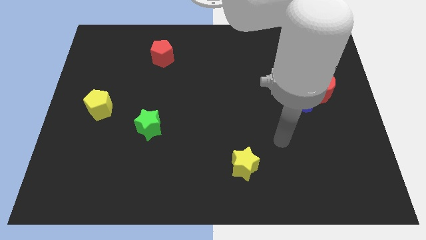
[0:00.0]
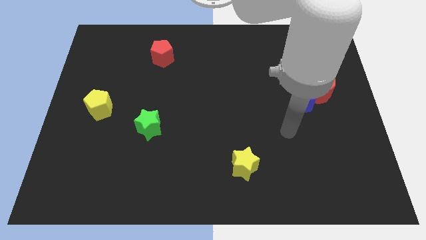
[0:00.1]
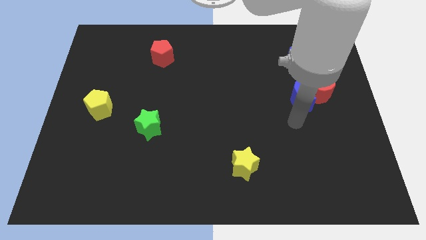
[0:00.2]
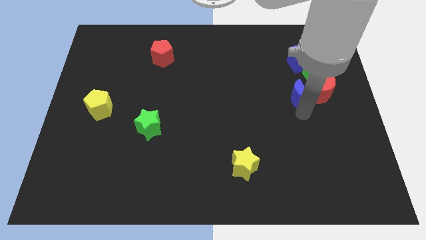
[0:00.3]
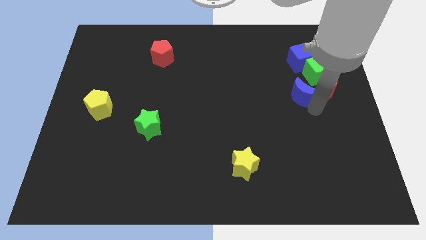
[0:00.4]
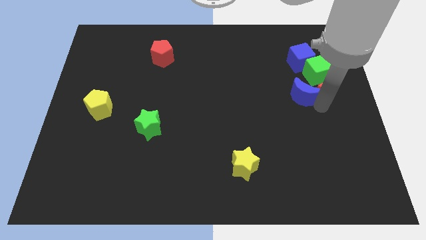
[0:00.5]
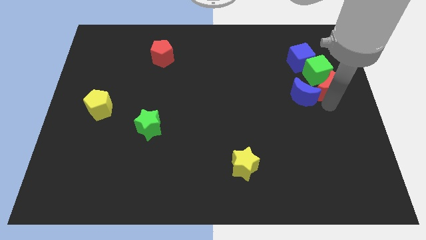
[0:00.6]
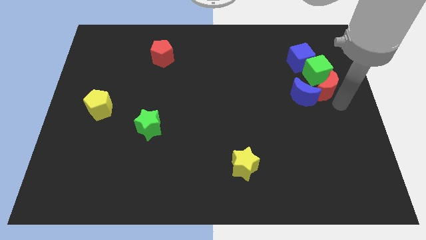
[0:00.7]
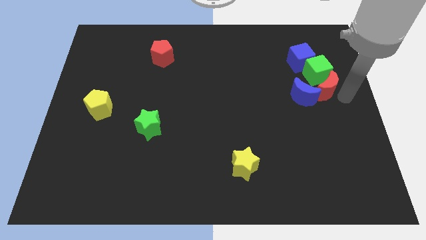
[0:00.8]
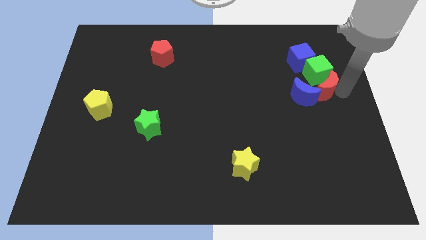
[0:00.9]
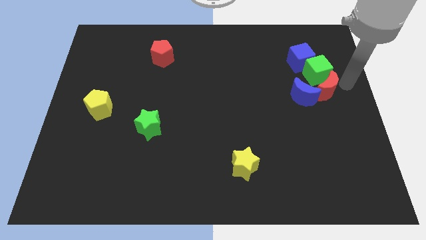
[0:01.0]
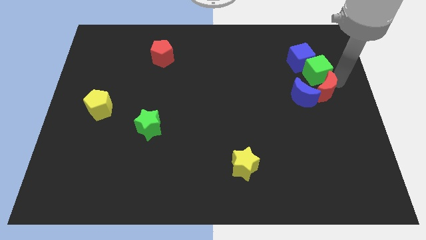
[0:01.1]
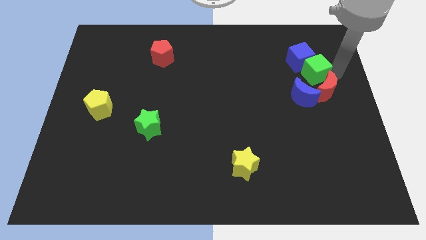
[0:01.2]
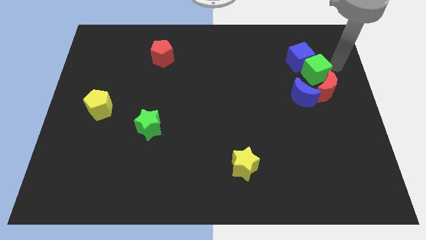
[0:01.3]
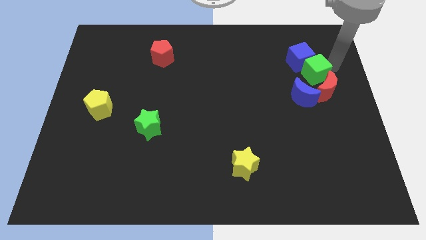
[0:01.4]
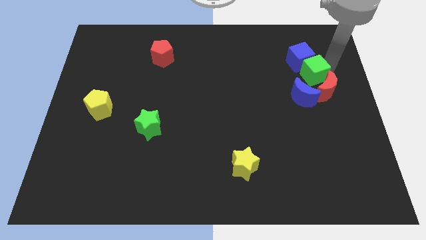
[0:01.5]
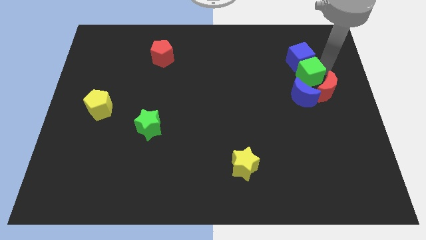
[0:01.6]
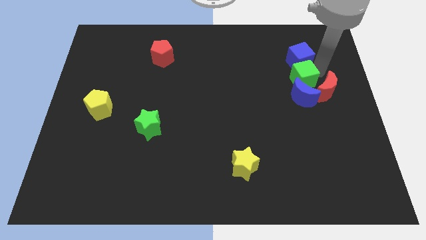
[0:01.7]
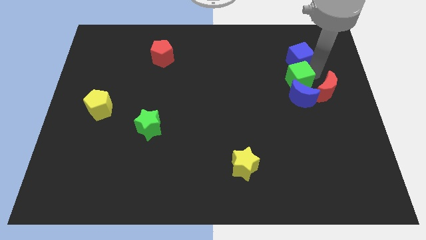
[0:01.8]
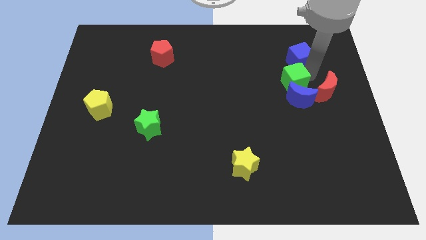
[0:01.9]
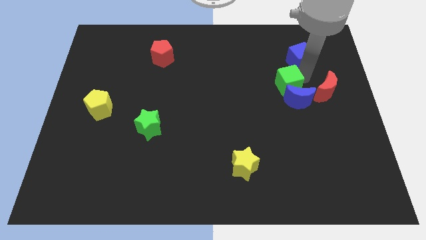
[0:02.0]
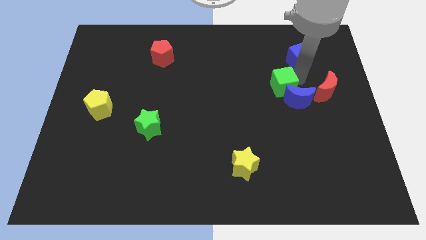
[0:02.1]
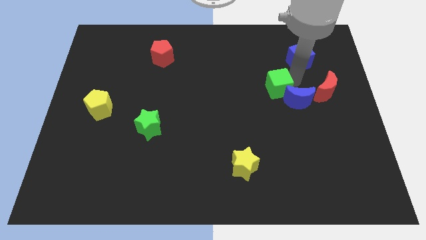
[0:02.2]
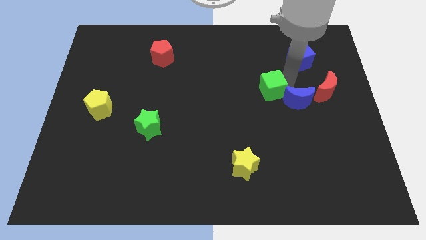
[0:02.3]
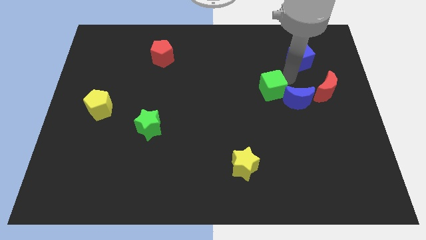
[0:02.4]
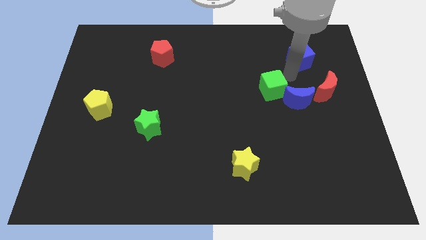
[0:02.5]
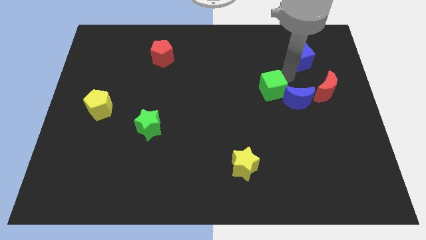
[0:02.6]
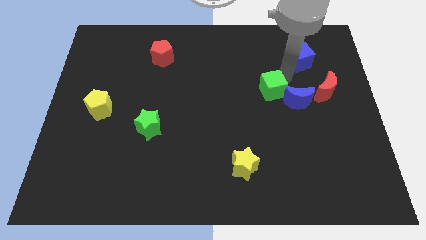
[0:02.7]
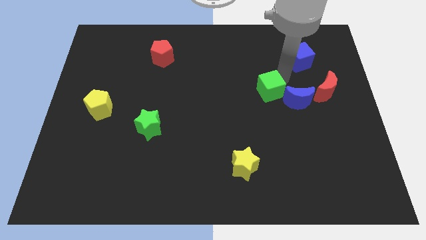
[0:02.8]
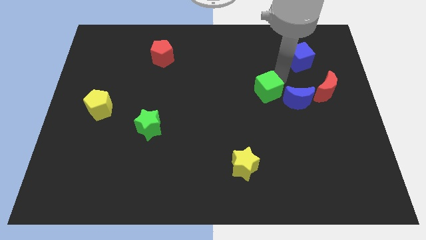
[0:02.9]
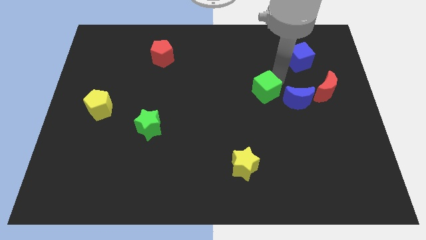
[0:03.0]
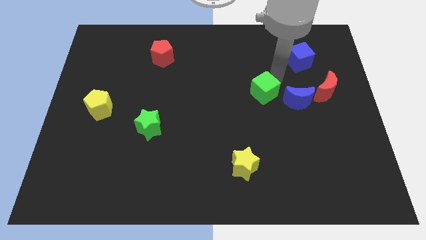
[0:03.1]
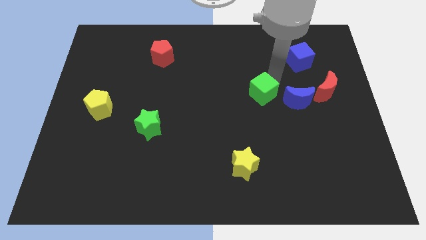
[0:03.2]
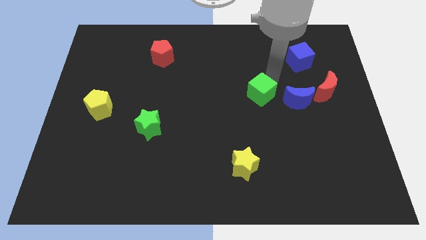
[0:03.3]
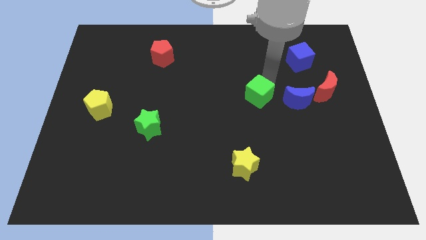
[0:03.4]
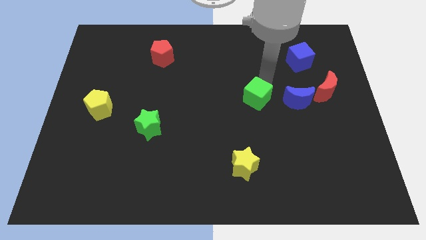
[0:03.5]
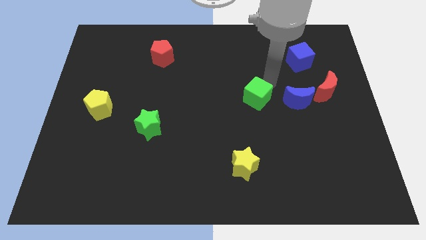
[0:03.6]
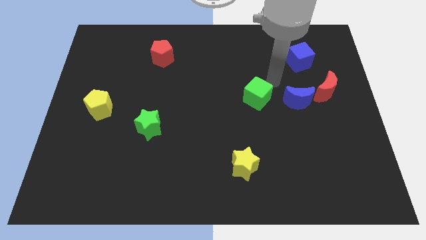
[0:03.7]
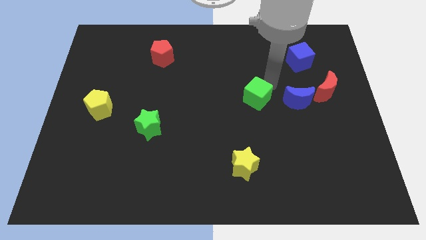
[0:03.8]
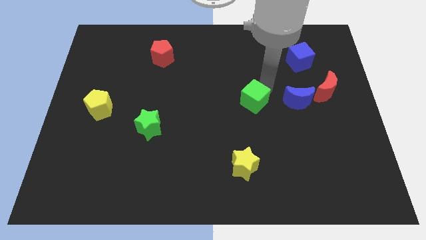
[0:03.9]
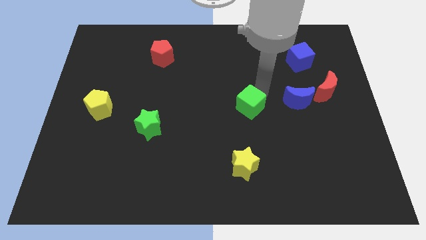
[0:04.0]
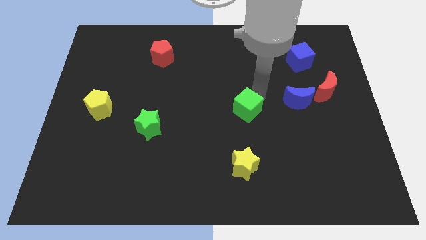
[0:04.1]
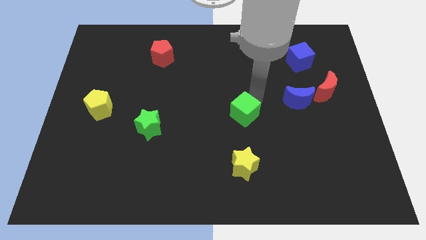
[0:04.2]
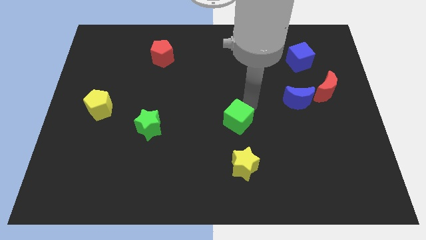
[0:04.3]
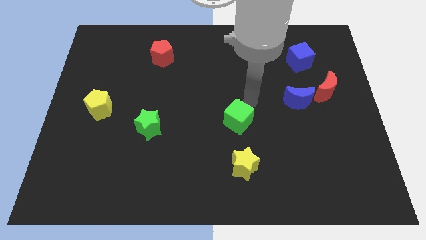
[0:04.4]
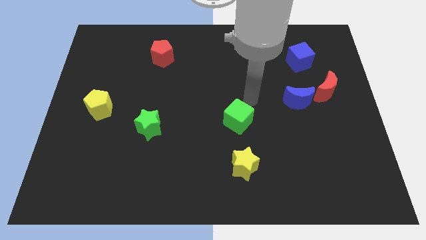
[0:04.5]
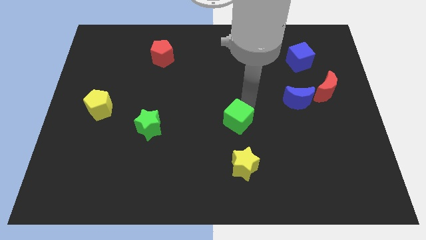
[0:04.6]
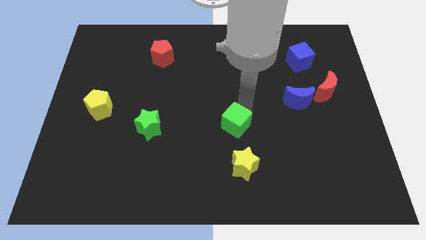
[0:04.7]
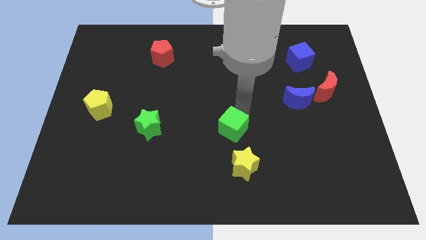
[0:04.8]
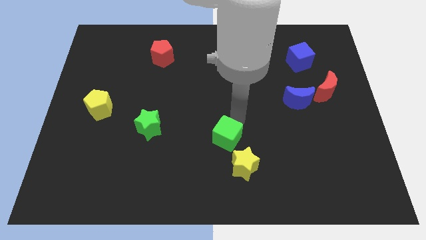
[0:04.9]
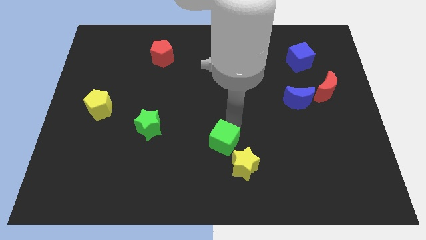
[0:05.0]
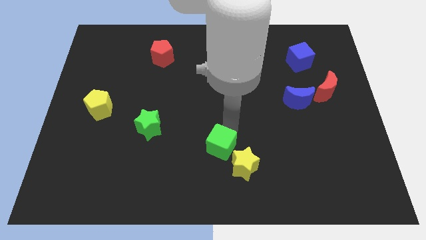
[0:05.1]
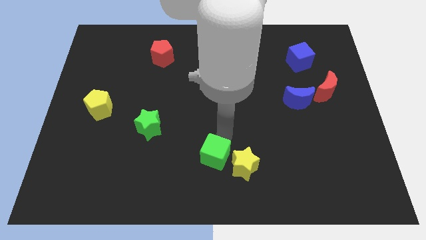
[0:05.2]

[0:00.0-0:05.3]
put the green cube to the bottom side

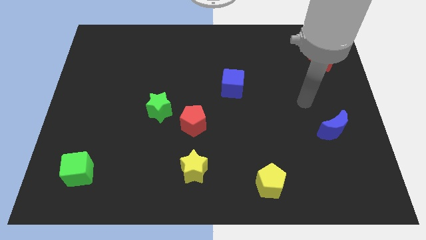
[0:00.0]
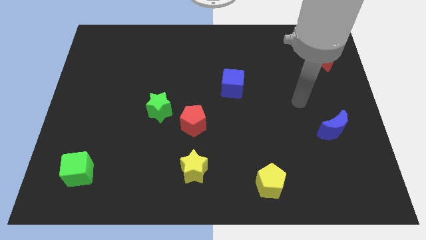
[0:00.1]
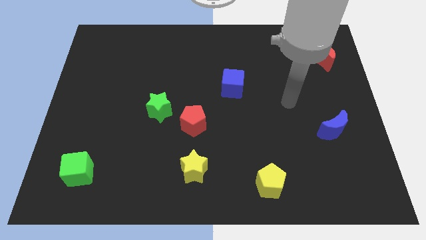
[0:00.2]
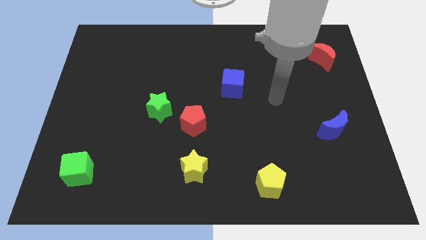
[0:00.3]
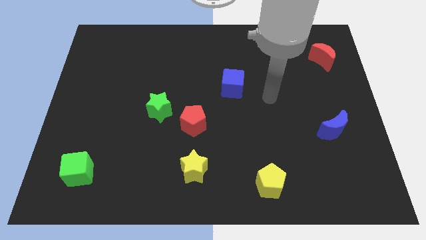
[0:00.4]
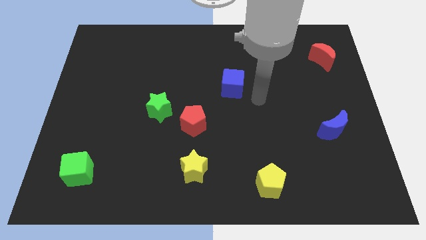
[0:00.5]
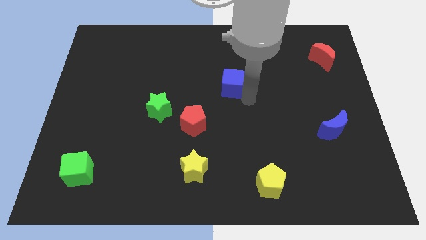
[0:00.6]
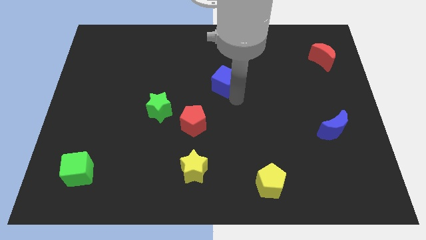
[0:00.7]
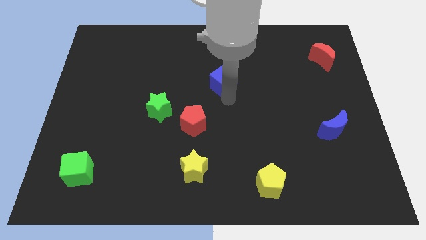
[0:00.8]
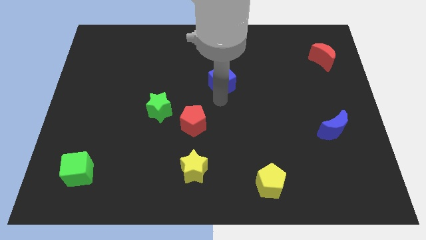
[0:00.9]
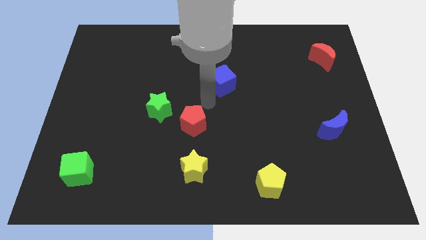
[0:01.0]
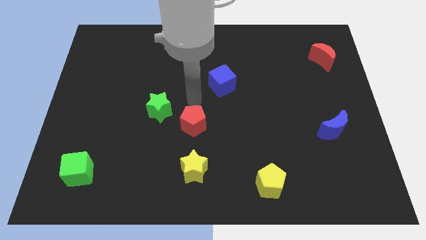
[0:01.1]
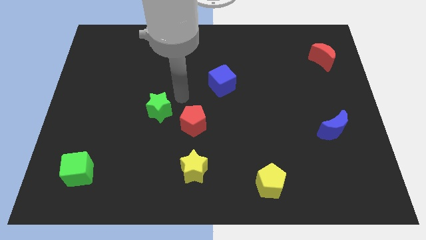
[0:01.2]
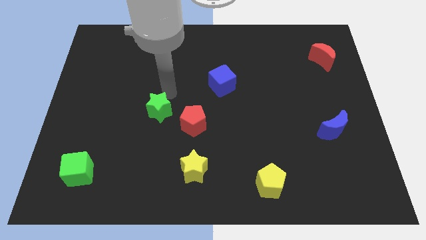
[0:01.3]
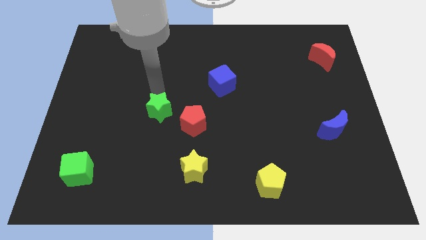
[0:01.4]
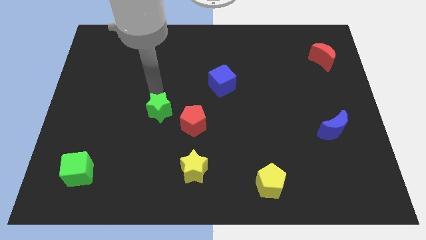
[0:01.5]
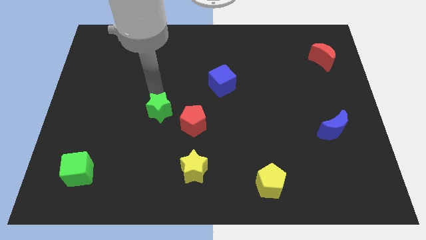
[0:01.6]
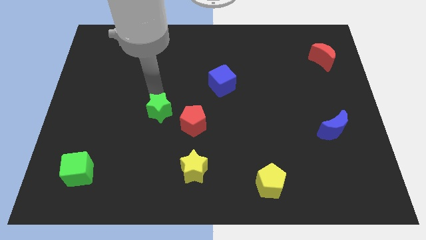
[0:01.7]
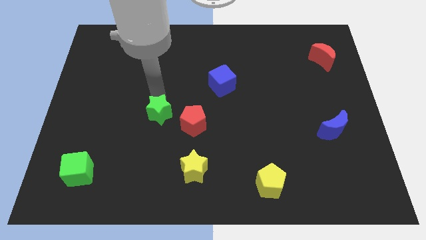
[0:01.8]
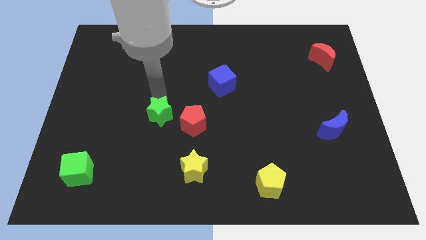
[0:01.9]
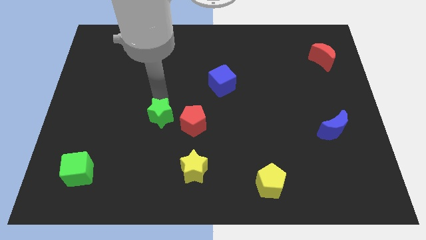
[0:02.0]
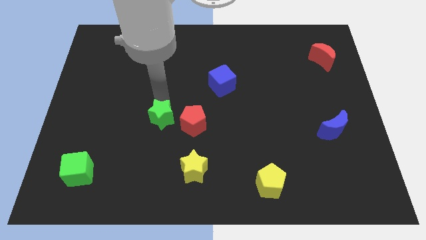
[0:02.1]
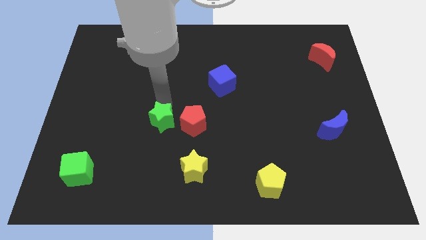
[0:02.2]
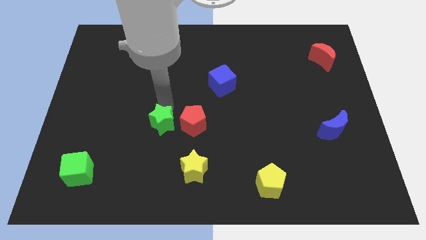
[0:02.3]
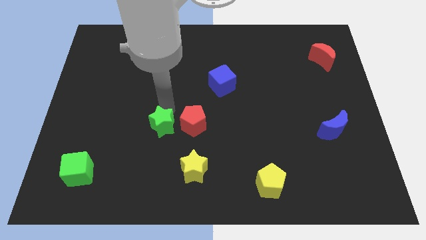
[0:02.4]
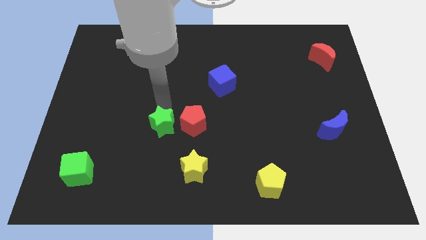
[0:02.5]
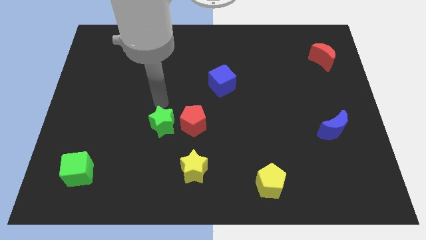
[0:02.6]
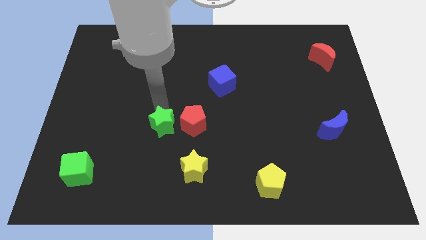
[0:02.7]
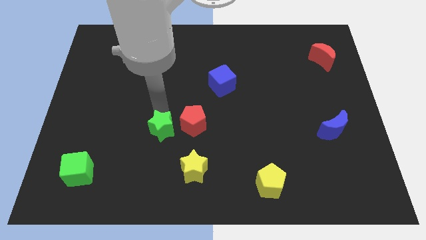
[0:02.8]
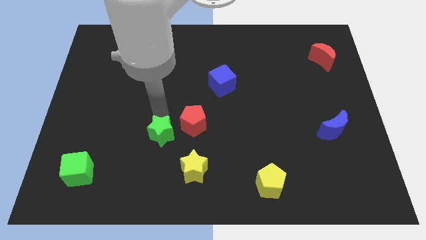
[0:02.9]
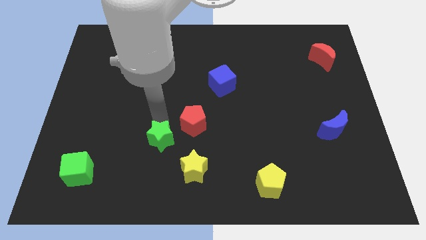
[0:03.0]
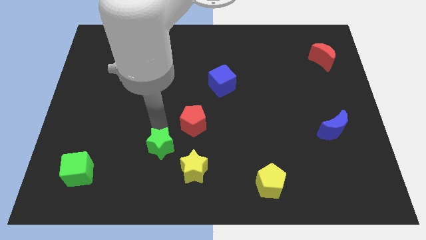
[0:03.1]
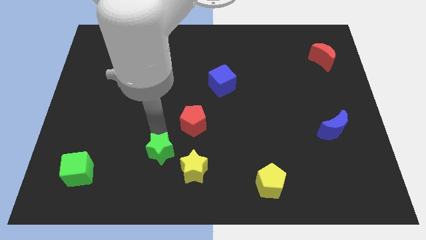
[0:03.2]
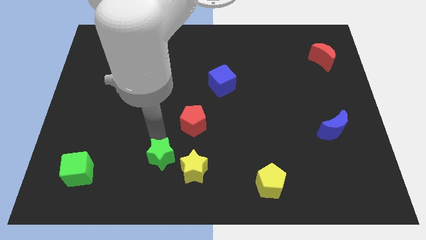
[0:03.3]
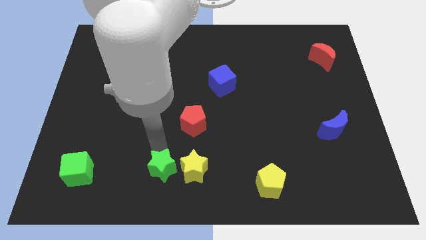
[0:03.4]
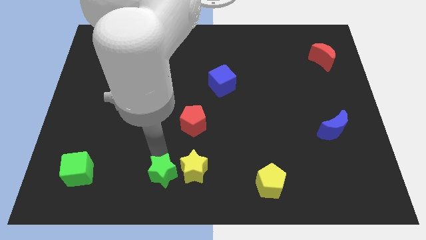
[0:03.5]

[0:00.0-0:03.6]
move the green star to the bottom side
